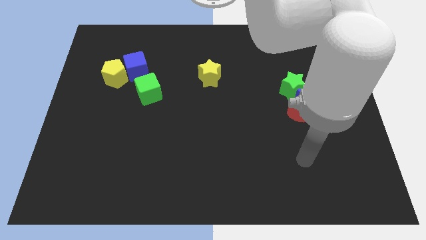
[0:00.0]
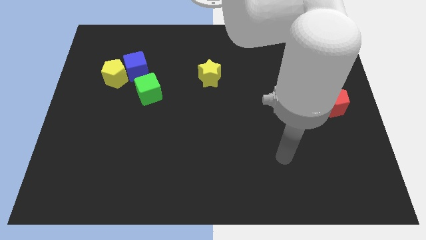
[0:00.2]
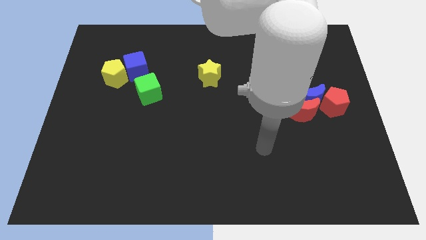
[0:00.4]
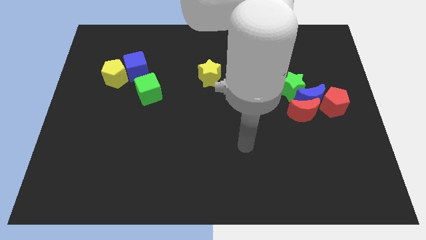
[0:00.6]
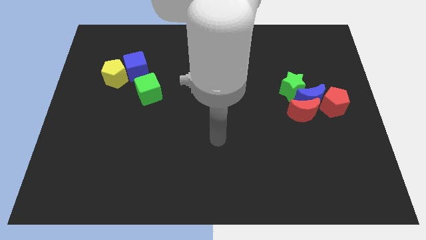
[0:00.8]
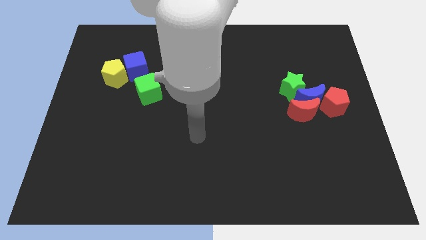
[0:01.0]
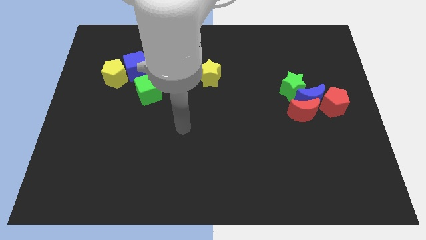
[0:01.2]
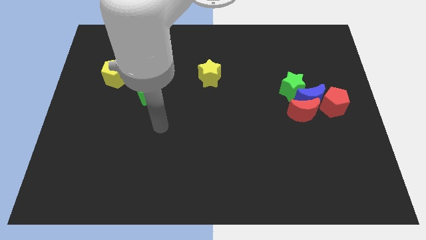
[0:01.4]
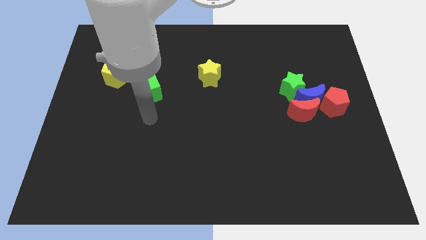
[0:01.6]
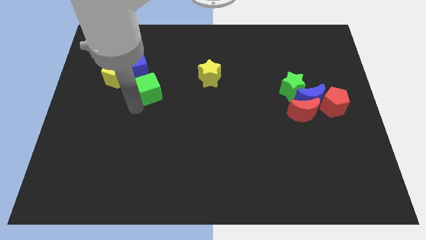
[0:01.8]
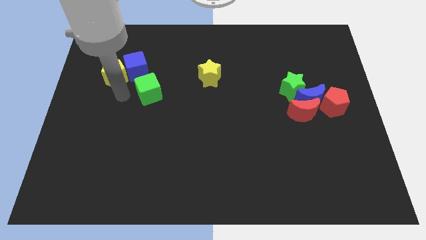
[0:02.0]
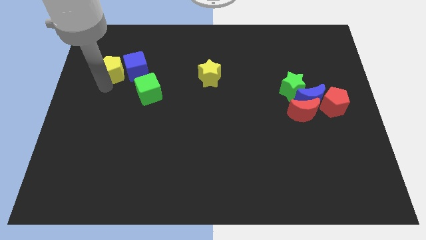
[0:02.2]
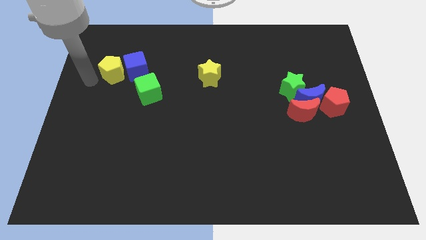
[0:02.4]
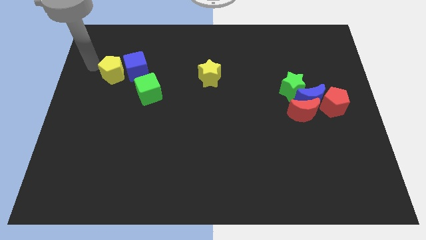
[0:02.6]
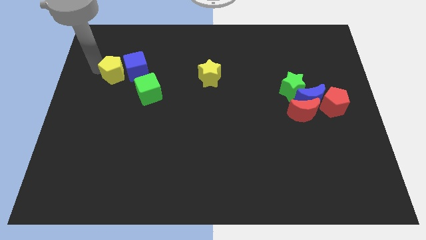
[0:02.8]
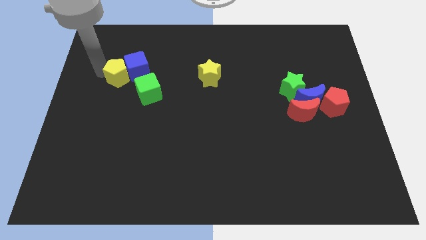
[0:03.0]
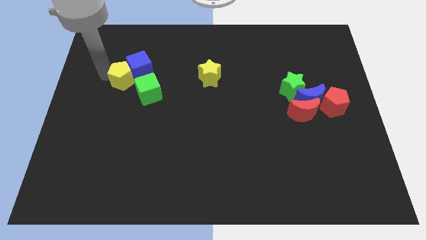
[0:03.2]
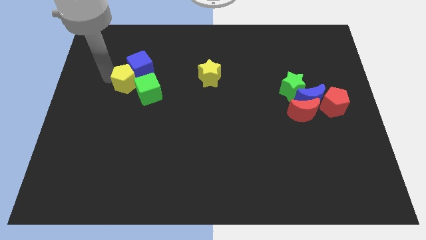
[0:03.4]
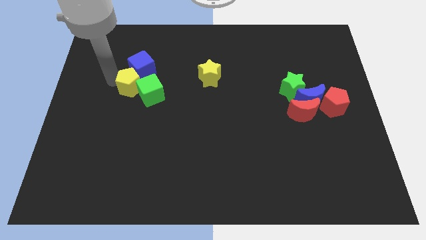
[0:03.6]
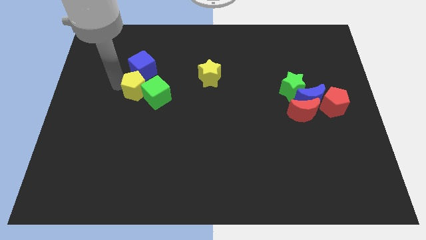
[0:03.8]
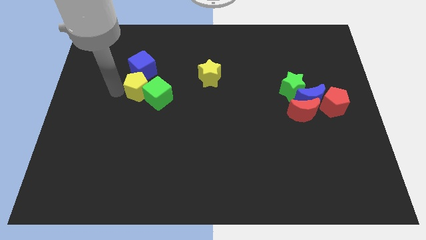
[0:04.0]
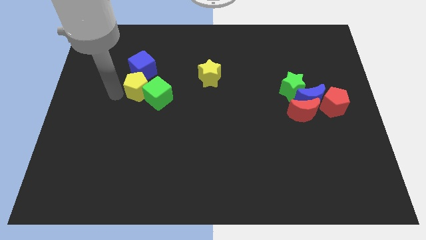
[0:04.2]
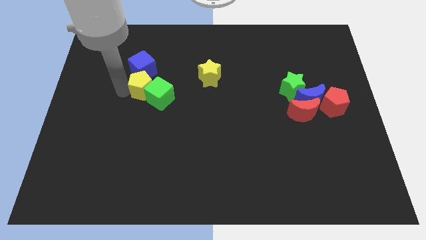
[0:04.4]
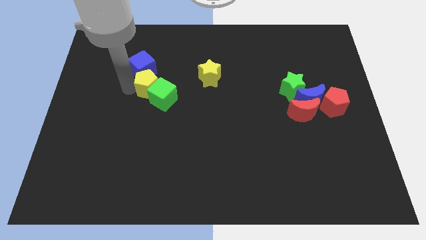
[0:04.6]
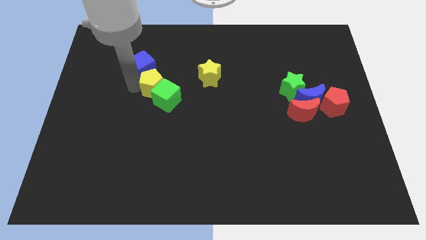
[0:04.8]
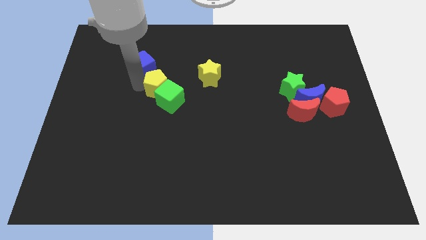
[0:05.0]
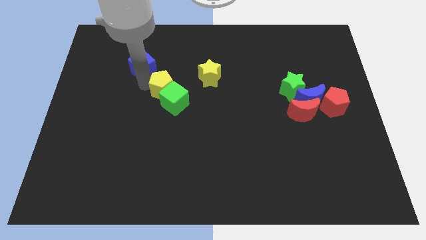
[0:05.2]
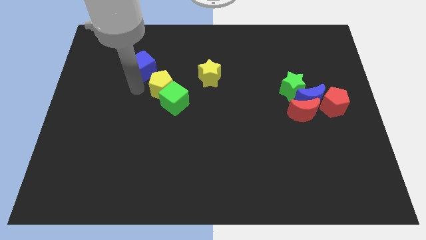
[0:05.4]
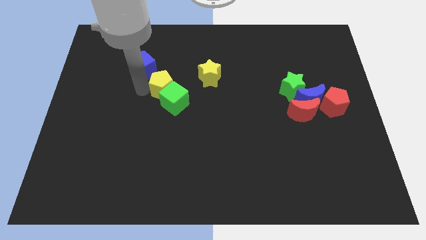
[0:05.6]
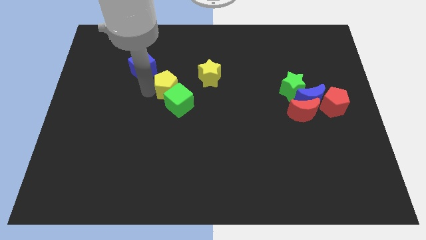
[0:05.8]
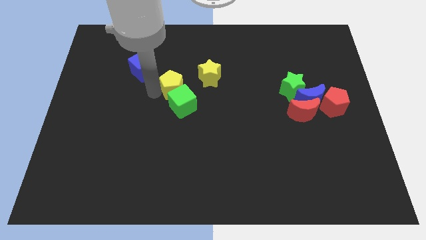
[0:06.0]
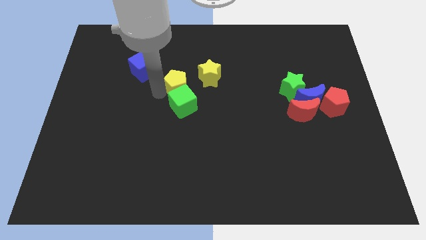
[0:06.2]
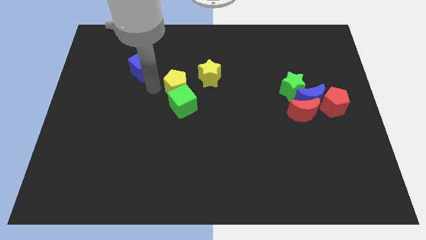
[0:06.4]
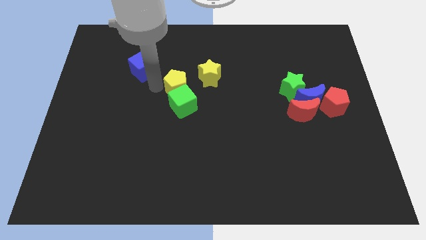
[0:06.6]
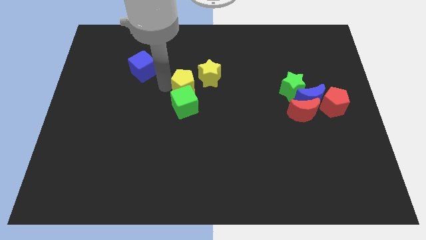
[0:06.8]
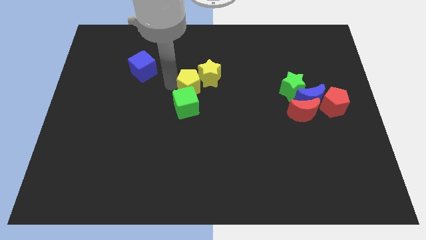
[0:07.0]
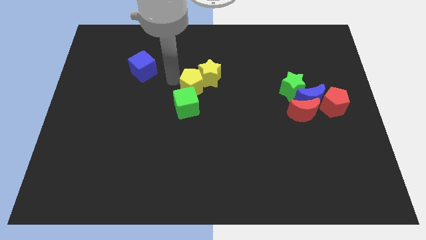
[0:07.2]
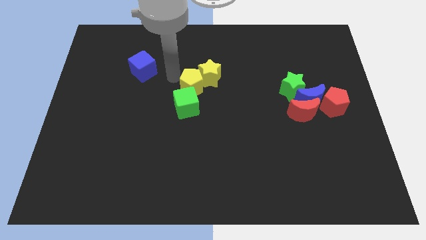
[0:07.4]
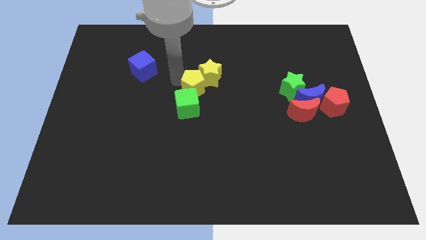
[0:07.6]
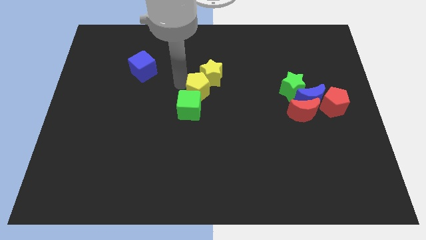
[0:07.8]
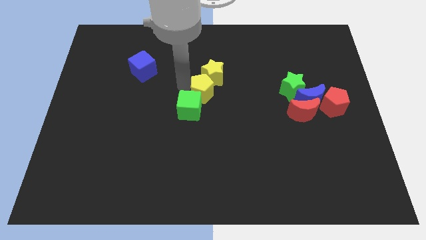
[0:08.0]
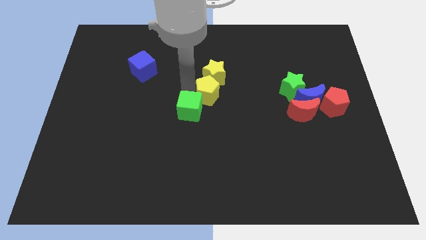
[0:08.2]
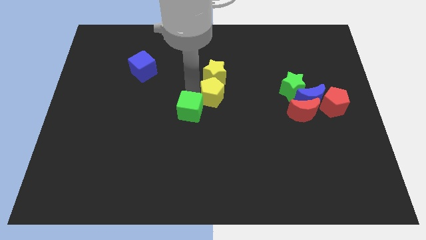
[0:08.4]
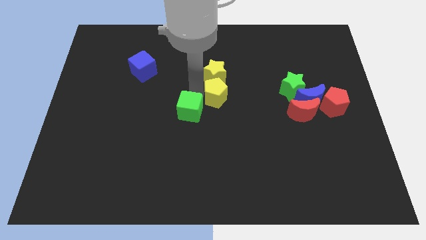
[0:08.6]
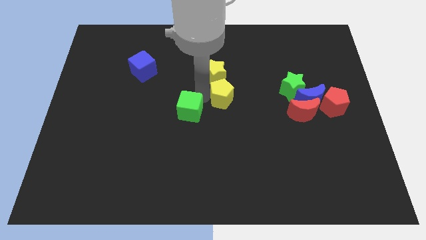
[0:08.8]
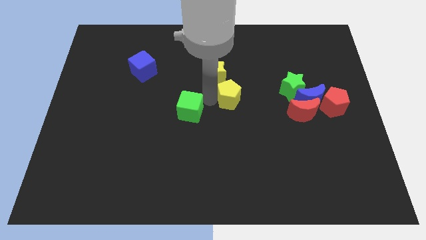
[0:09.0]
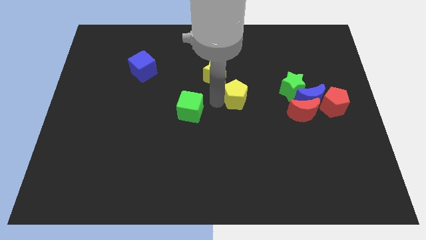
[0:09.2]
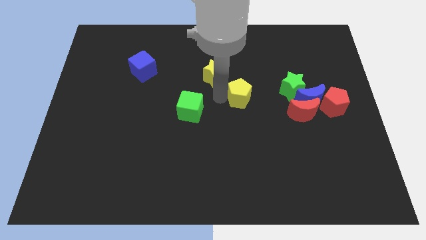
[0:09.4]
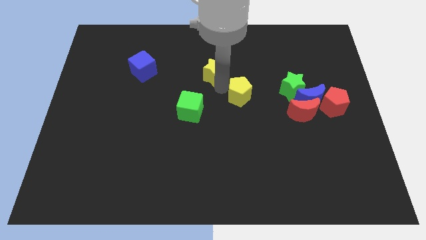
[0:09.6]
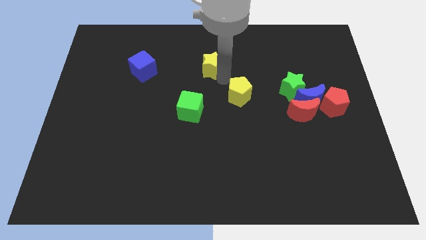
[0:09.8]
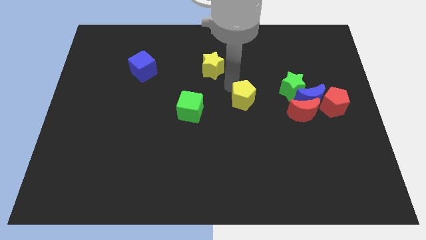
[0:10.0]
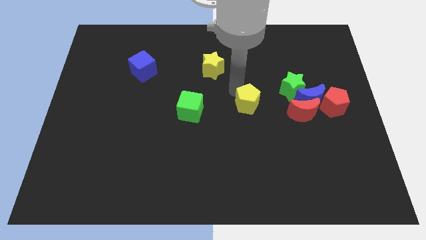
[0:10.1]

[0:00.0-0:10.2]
put the yellow pentagon just left of the red moon

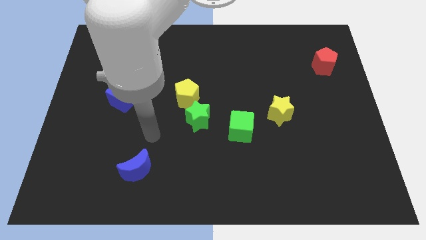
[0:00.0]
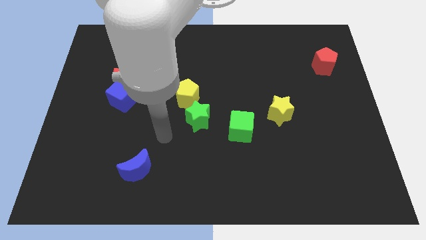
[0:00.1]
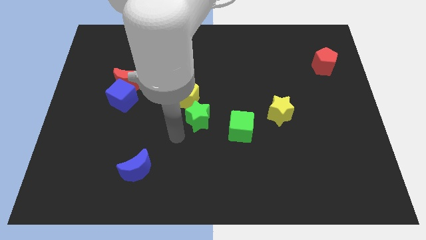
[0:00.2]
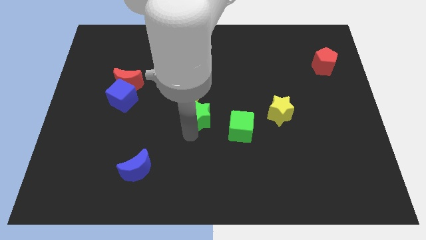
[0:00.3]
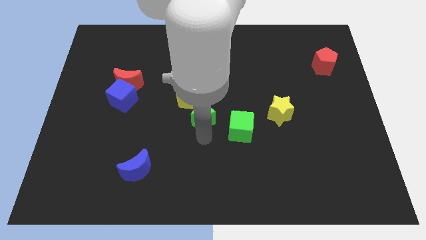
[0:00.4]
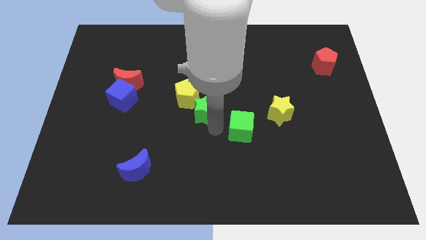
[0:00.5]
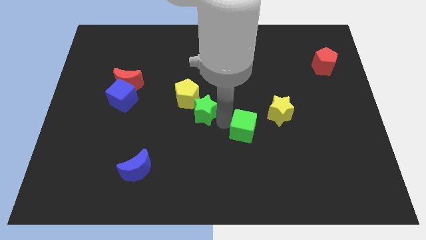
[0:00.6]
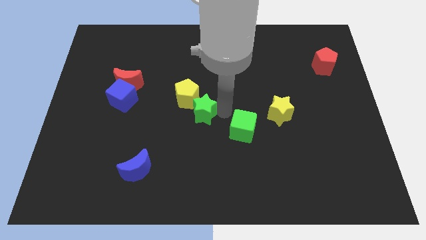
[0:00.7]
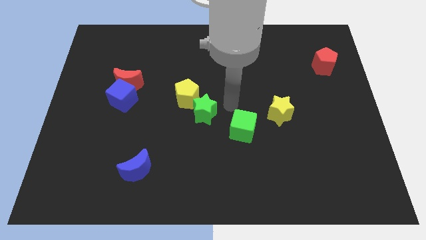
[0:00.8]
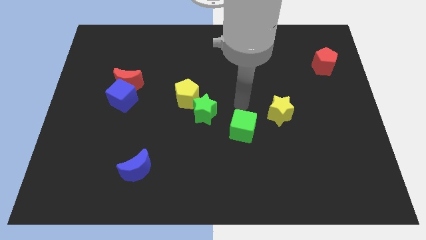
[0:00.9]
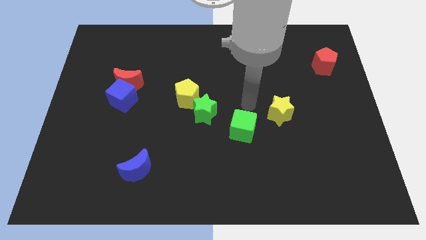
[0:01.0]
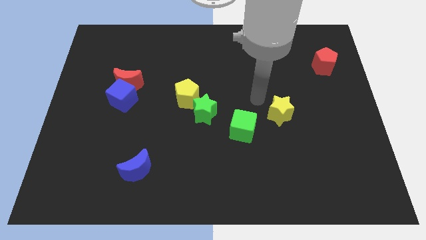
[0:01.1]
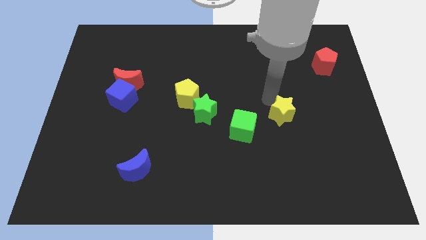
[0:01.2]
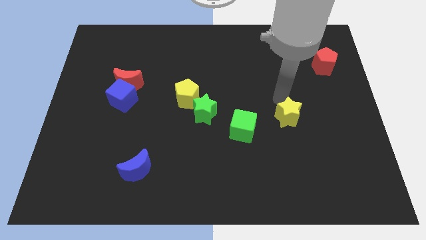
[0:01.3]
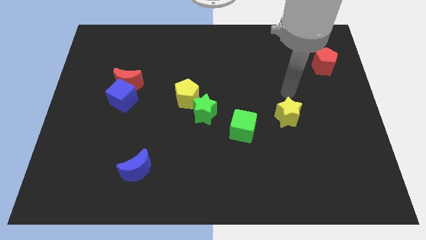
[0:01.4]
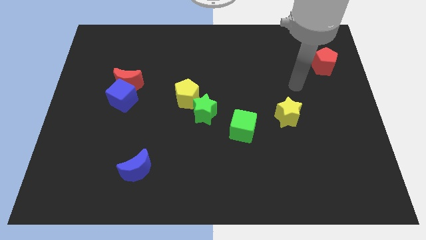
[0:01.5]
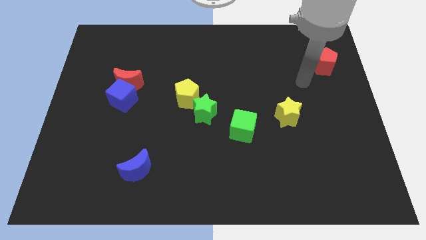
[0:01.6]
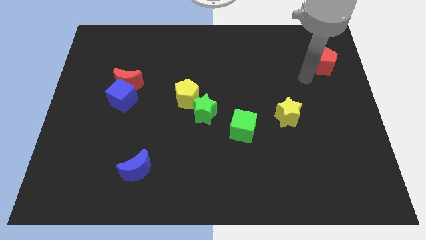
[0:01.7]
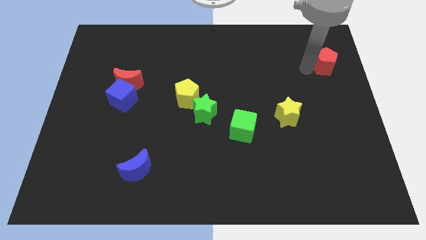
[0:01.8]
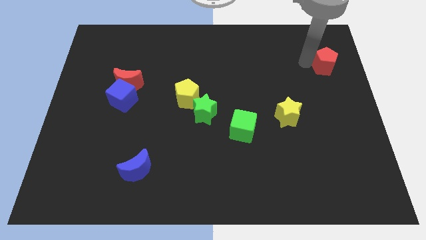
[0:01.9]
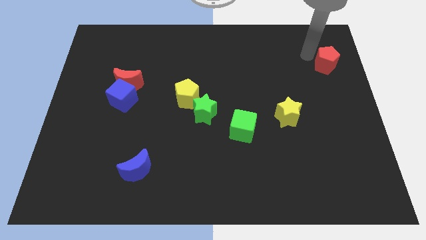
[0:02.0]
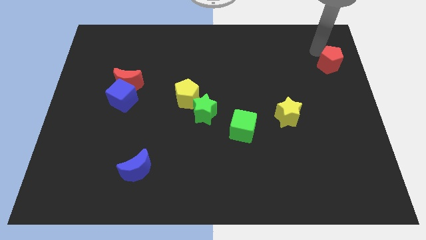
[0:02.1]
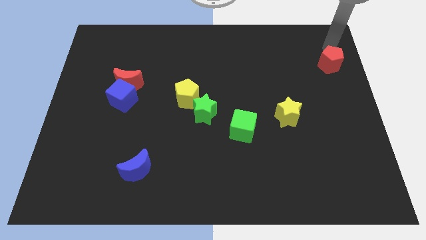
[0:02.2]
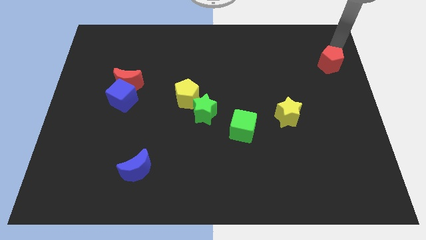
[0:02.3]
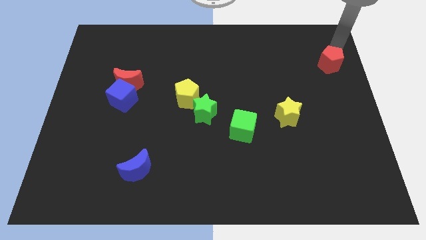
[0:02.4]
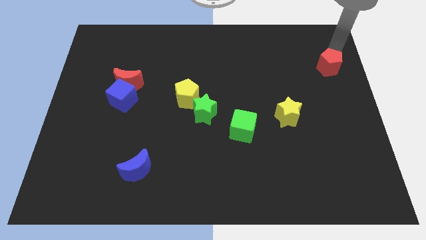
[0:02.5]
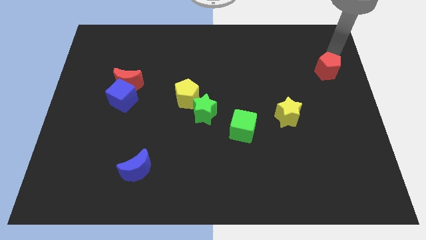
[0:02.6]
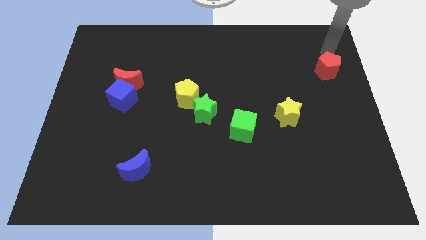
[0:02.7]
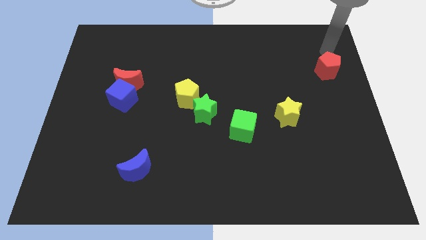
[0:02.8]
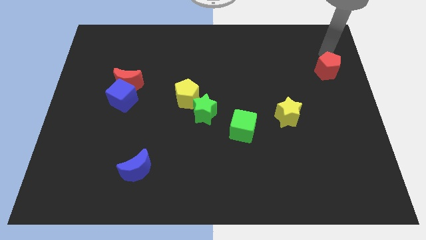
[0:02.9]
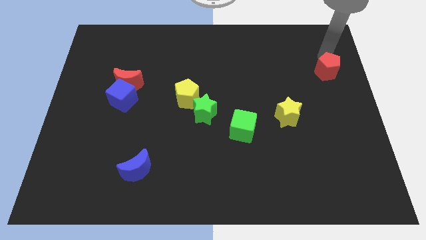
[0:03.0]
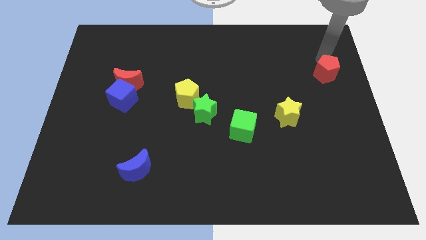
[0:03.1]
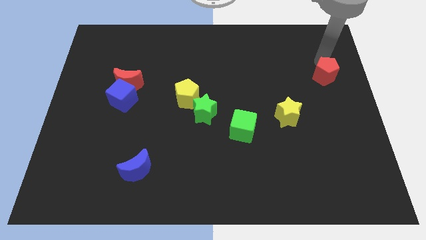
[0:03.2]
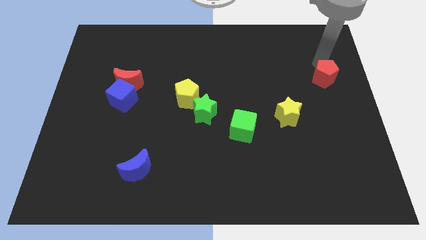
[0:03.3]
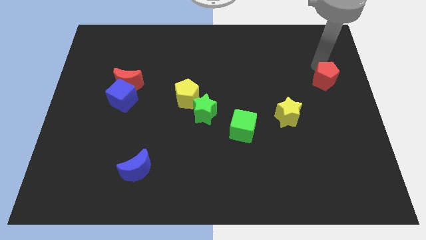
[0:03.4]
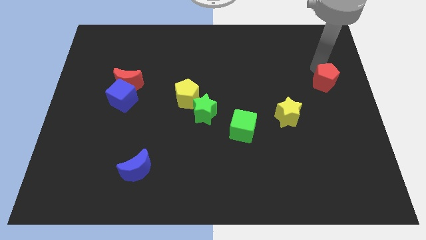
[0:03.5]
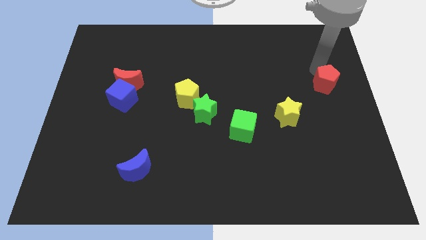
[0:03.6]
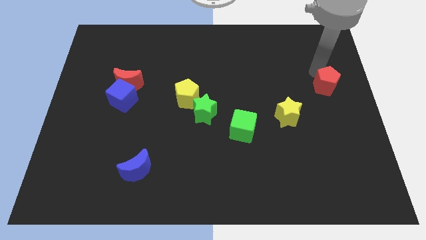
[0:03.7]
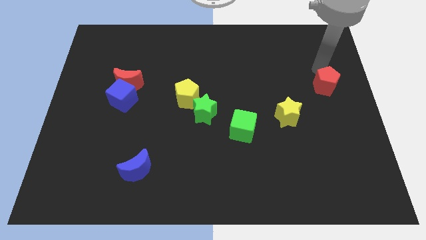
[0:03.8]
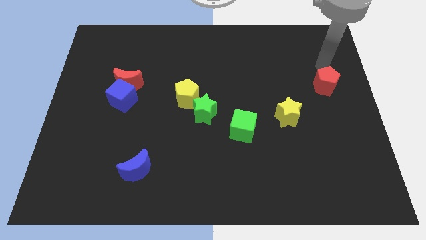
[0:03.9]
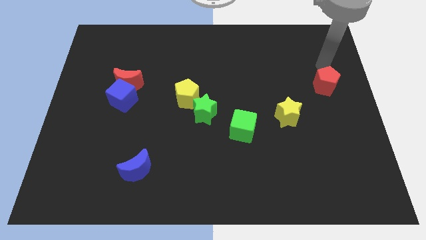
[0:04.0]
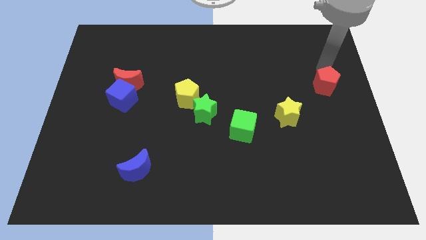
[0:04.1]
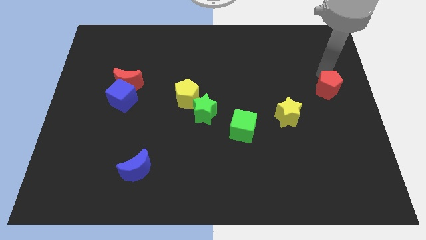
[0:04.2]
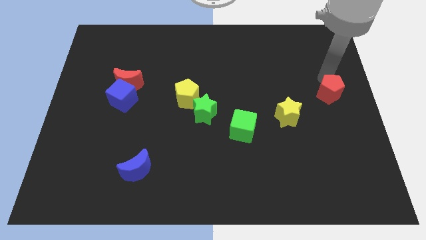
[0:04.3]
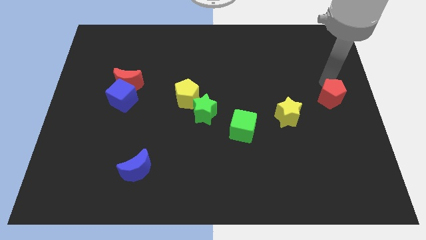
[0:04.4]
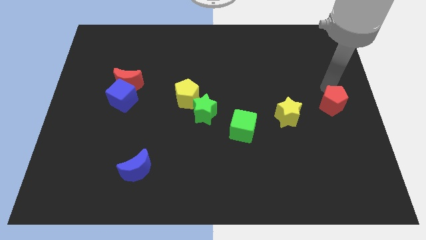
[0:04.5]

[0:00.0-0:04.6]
slide the red pentagon to the right side of the yellow star
